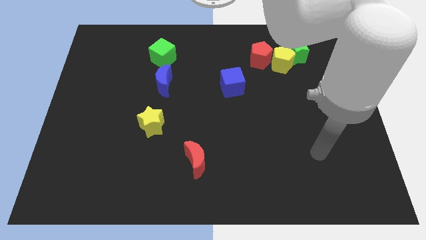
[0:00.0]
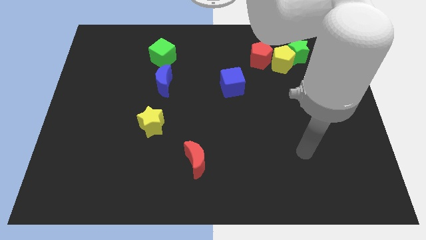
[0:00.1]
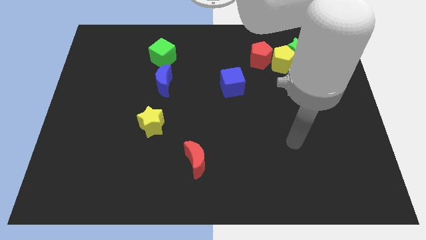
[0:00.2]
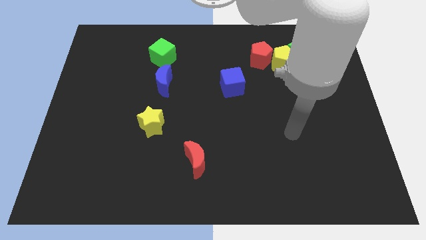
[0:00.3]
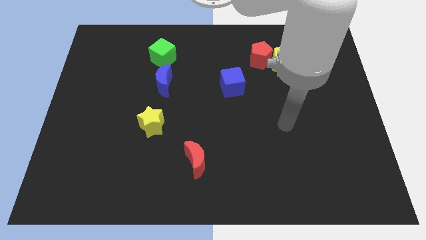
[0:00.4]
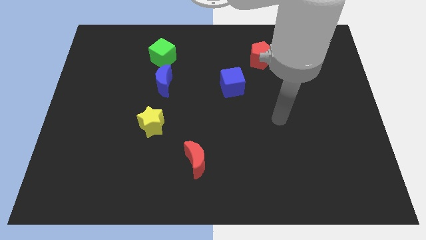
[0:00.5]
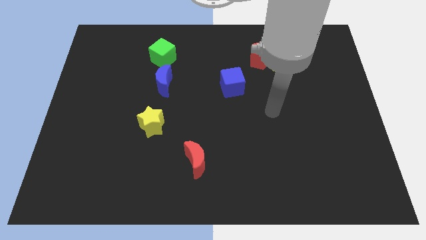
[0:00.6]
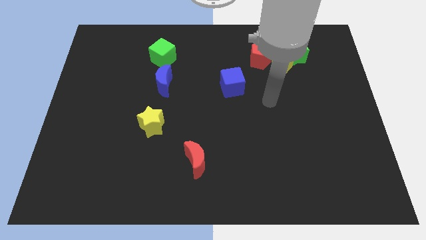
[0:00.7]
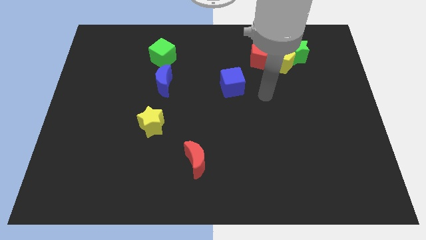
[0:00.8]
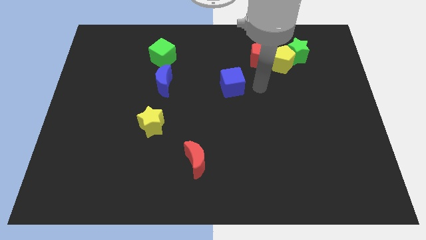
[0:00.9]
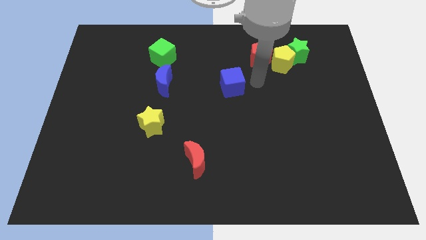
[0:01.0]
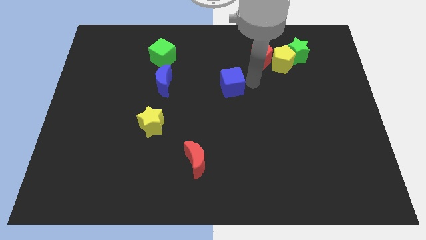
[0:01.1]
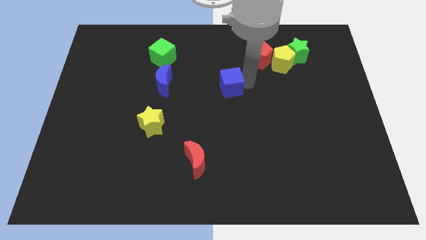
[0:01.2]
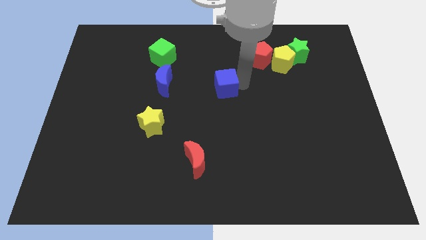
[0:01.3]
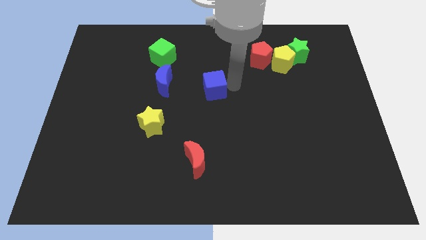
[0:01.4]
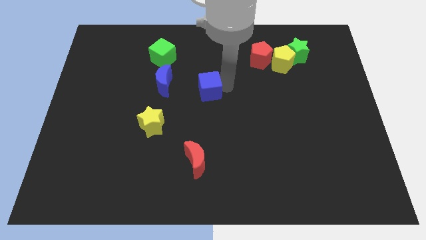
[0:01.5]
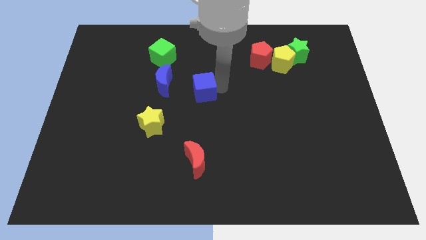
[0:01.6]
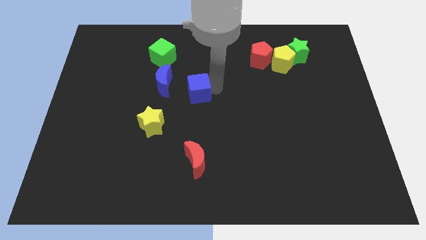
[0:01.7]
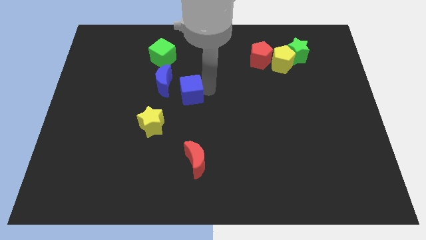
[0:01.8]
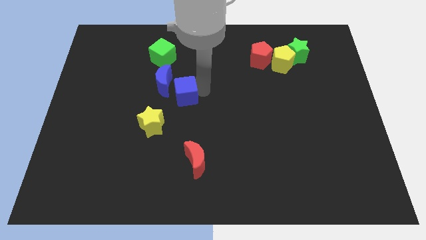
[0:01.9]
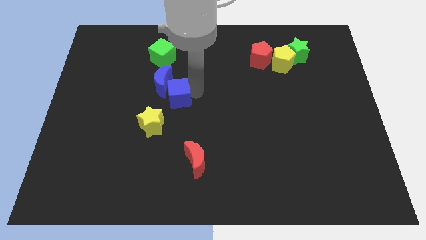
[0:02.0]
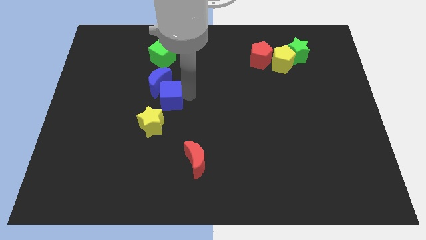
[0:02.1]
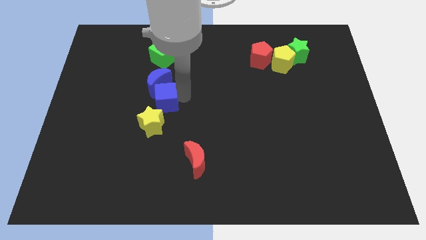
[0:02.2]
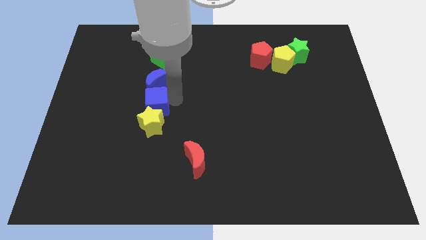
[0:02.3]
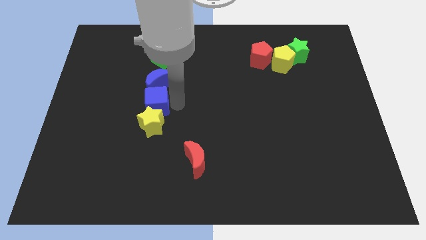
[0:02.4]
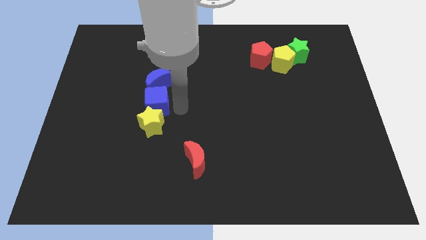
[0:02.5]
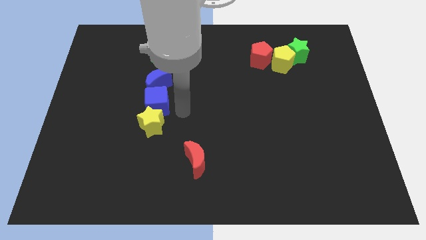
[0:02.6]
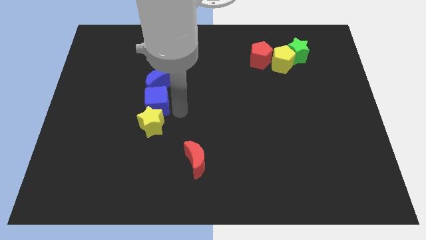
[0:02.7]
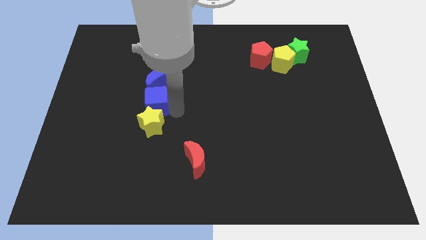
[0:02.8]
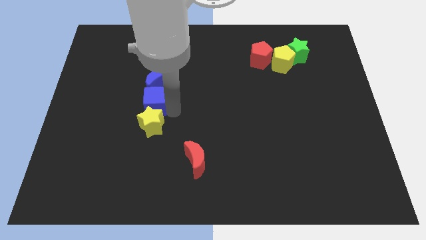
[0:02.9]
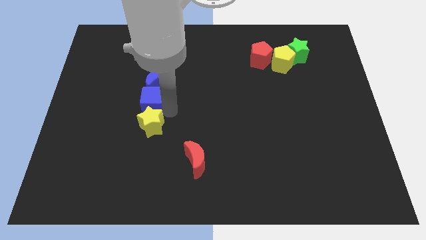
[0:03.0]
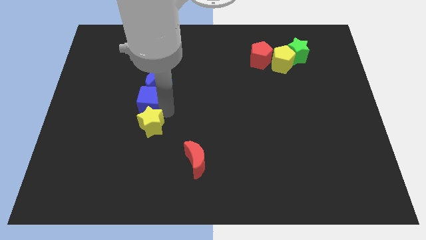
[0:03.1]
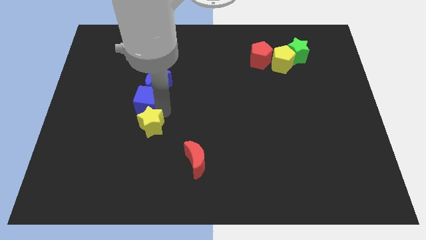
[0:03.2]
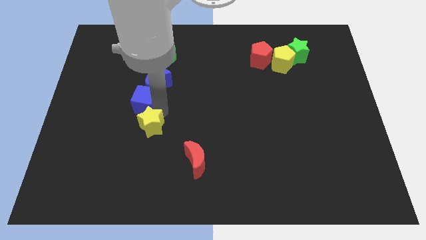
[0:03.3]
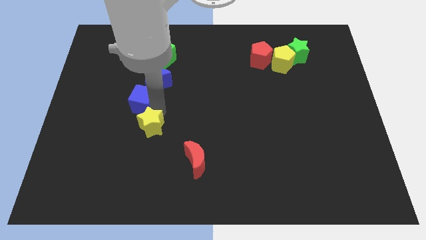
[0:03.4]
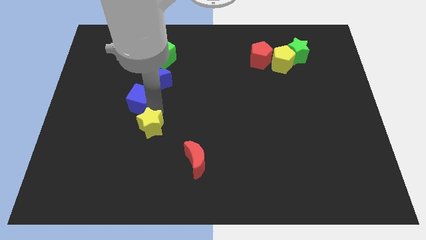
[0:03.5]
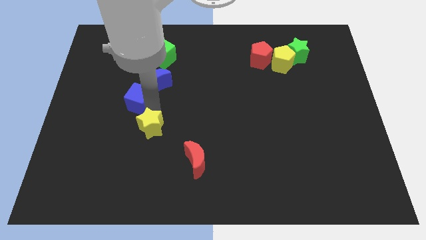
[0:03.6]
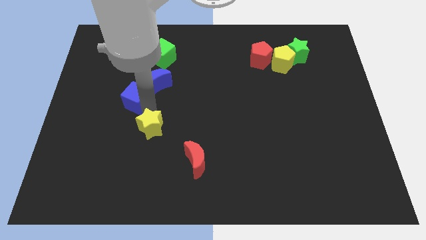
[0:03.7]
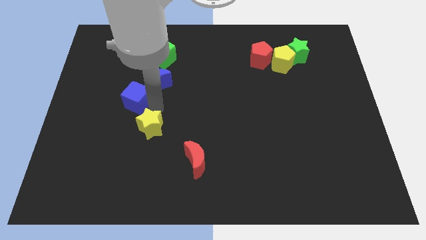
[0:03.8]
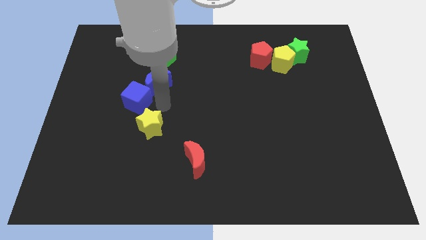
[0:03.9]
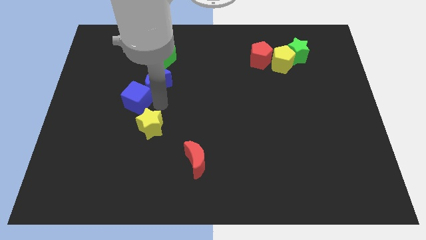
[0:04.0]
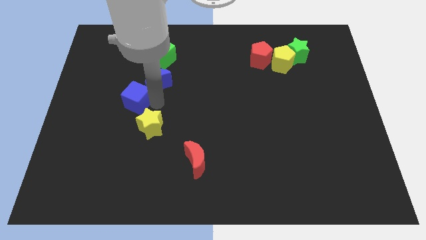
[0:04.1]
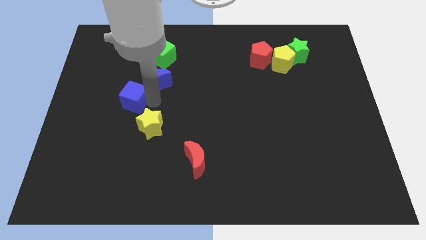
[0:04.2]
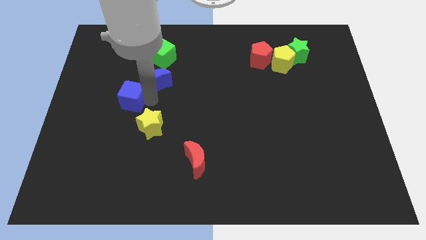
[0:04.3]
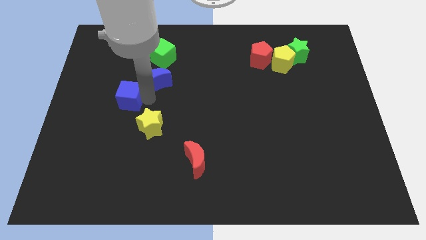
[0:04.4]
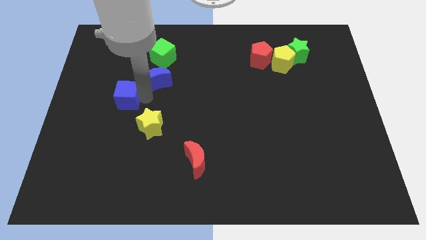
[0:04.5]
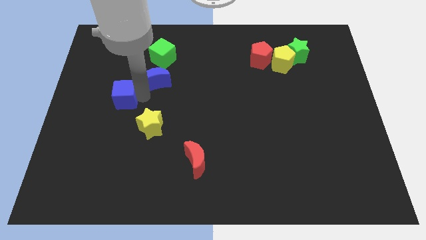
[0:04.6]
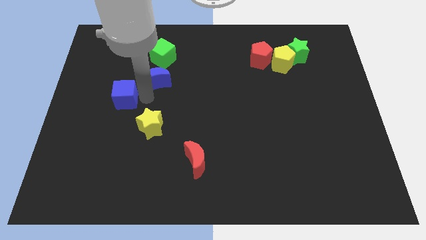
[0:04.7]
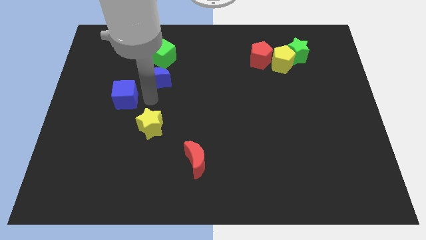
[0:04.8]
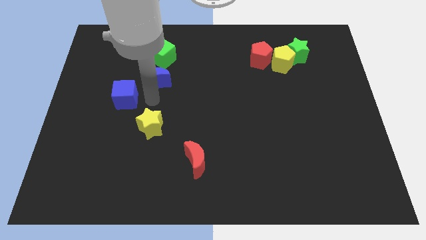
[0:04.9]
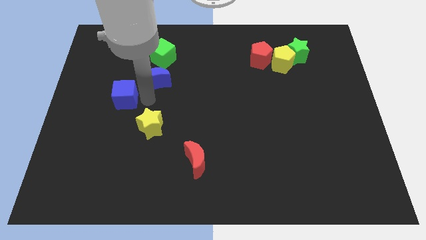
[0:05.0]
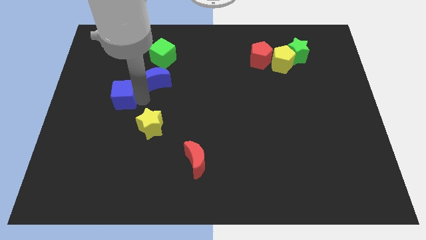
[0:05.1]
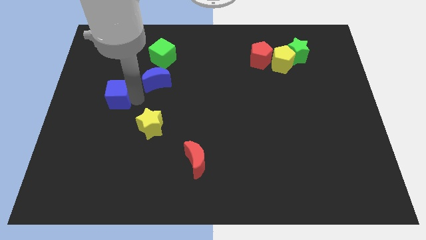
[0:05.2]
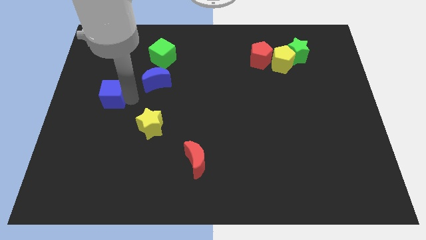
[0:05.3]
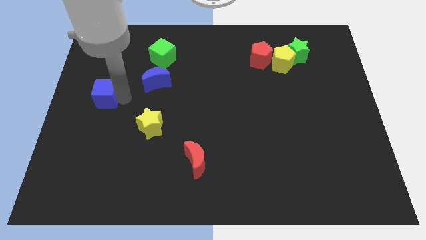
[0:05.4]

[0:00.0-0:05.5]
move the blue cube to the left side of the board
